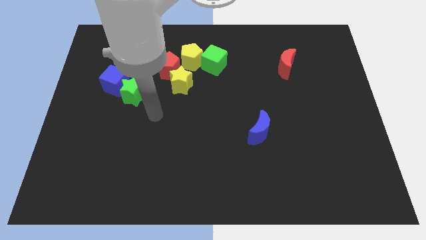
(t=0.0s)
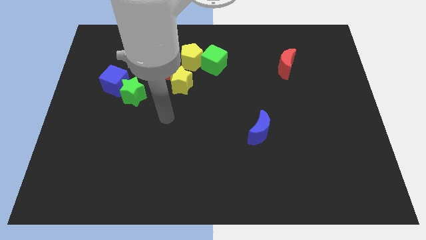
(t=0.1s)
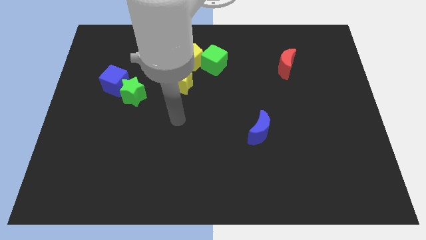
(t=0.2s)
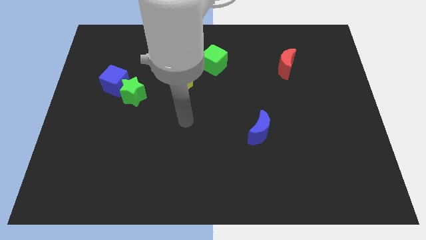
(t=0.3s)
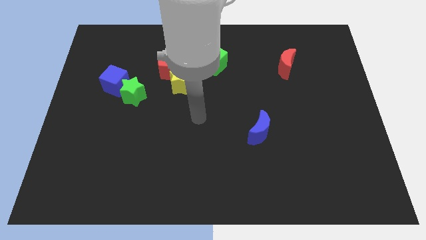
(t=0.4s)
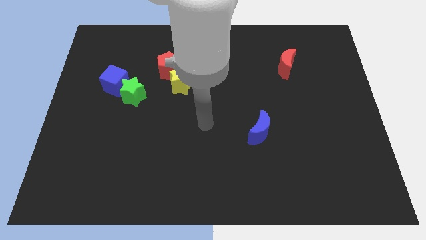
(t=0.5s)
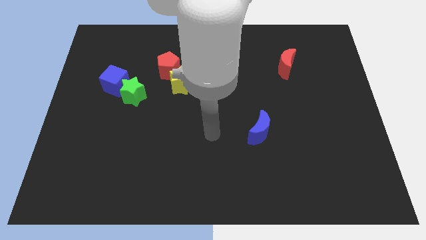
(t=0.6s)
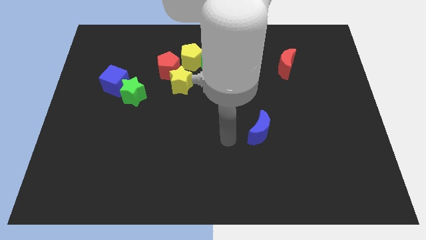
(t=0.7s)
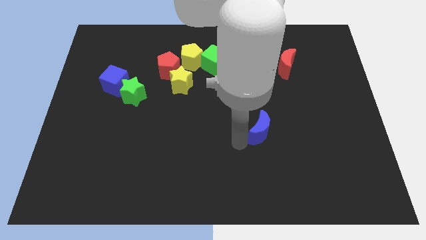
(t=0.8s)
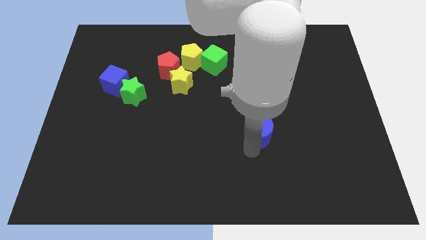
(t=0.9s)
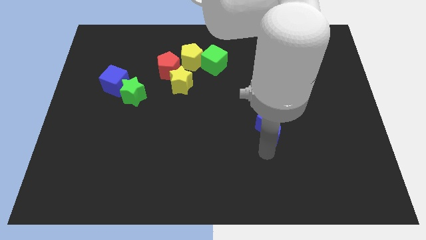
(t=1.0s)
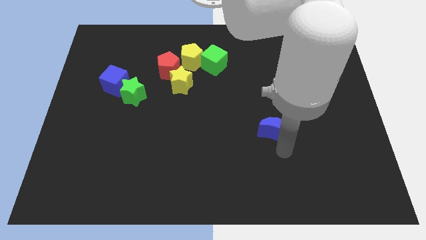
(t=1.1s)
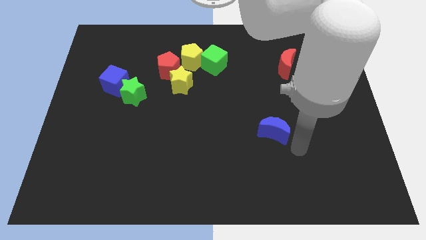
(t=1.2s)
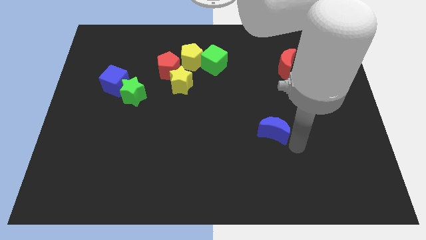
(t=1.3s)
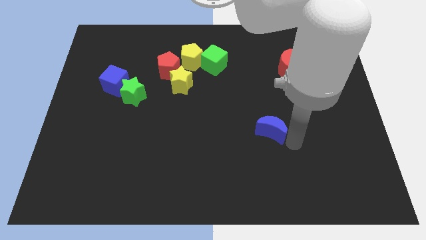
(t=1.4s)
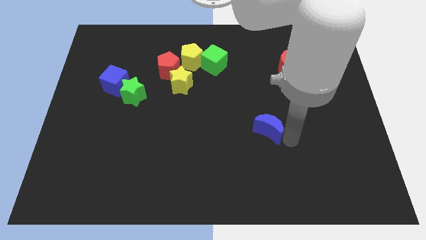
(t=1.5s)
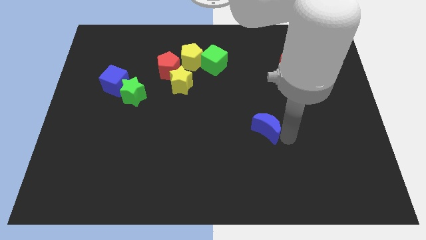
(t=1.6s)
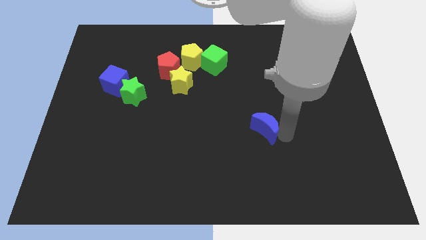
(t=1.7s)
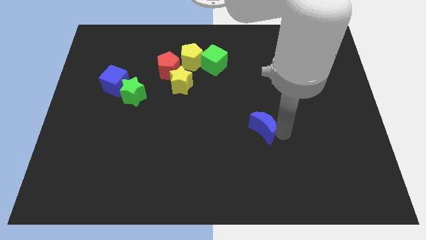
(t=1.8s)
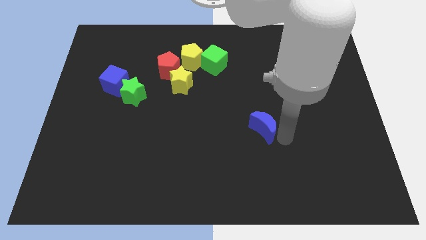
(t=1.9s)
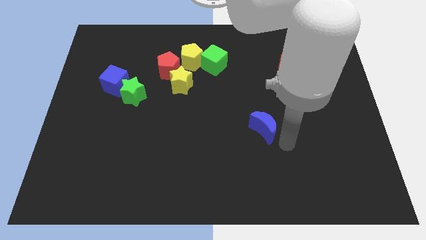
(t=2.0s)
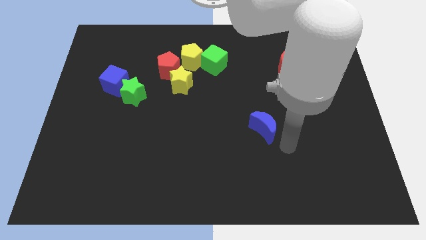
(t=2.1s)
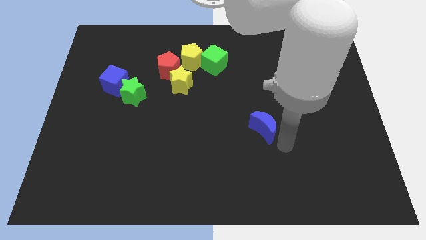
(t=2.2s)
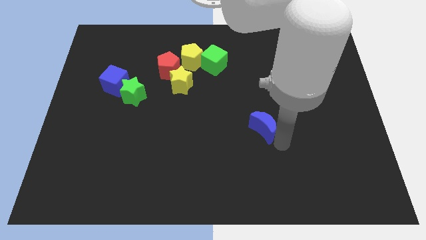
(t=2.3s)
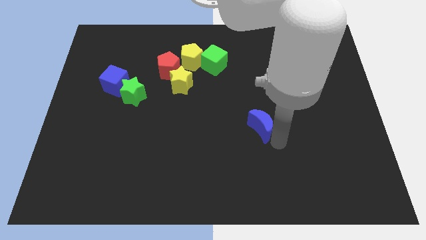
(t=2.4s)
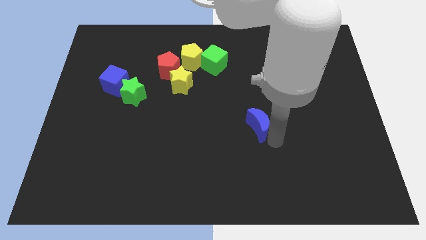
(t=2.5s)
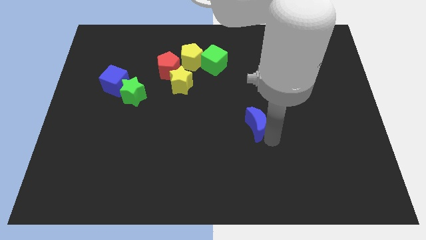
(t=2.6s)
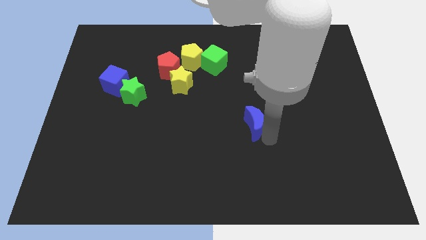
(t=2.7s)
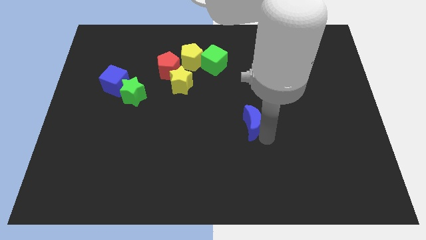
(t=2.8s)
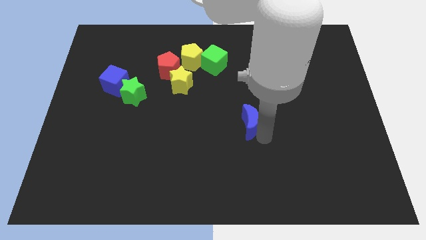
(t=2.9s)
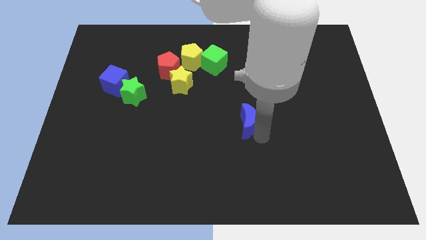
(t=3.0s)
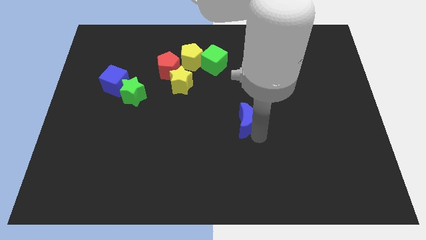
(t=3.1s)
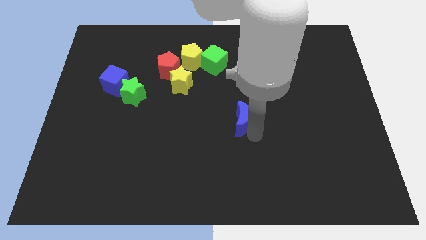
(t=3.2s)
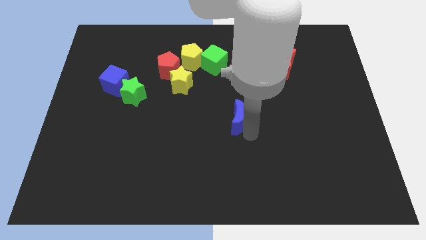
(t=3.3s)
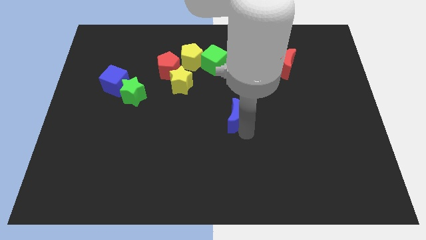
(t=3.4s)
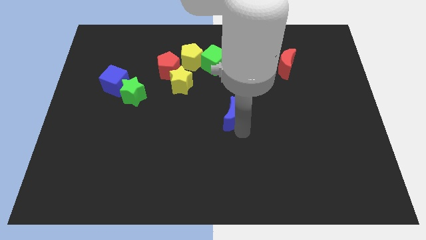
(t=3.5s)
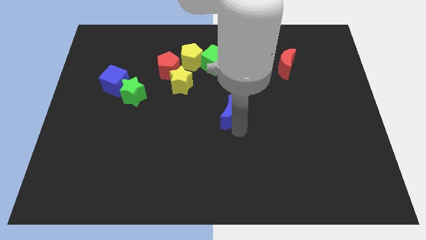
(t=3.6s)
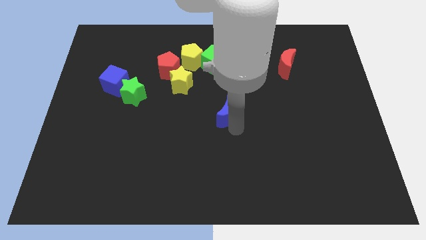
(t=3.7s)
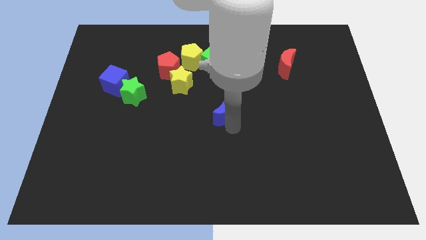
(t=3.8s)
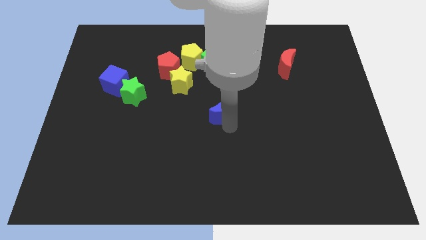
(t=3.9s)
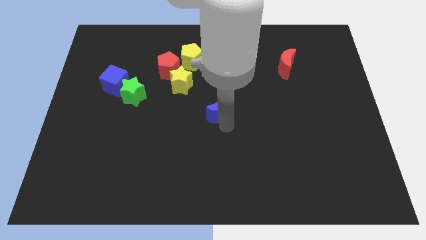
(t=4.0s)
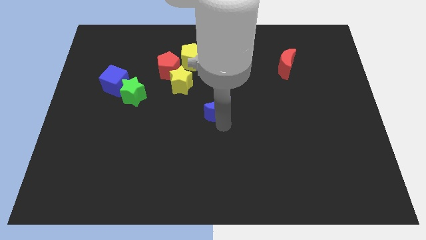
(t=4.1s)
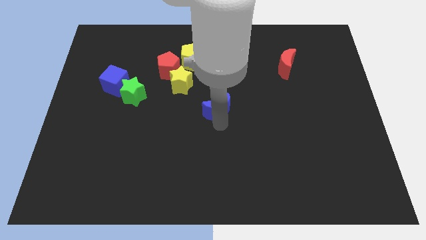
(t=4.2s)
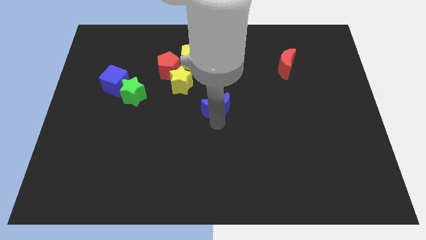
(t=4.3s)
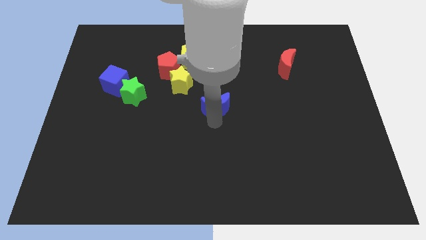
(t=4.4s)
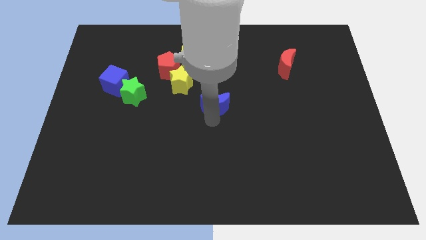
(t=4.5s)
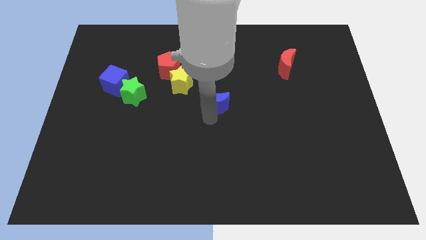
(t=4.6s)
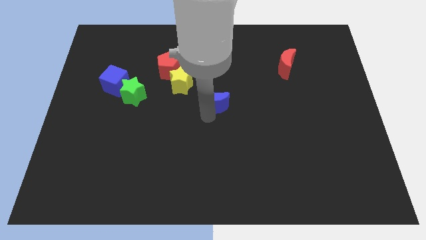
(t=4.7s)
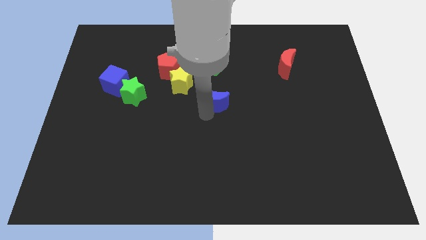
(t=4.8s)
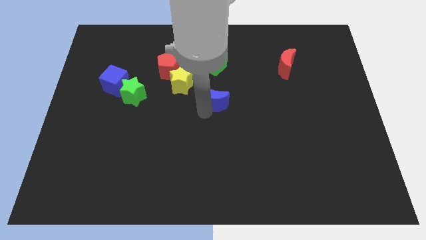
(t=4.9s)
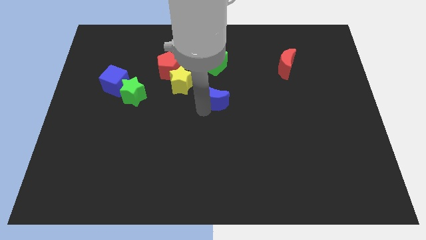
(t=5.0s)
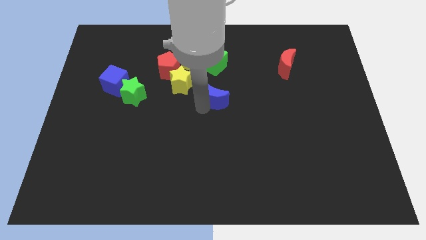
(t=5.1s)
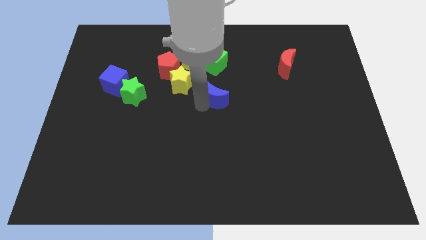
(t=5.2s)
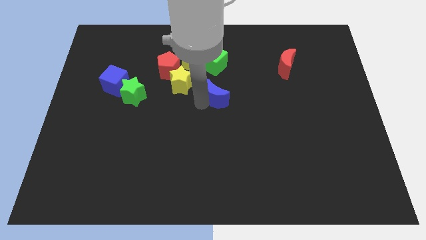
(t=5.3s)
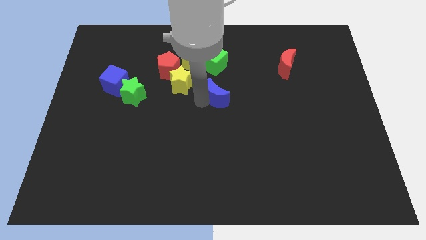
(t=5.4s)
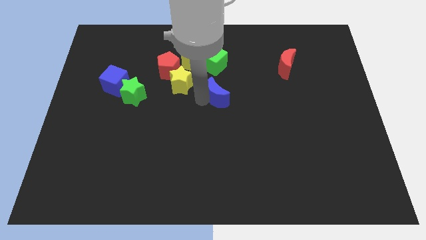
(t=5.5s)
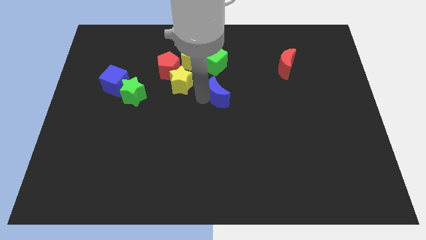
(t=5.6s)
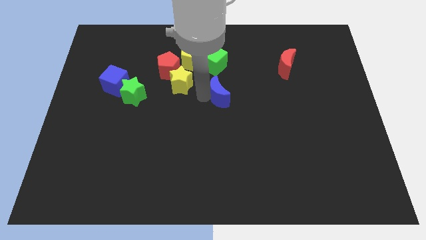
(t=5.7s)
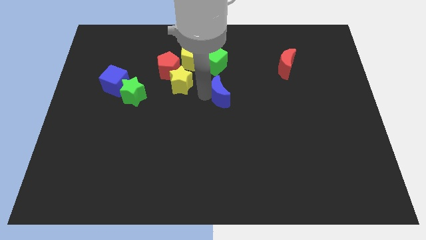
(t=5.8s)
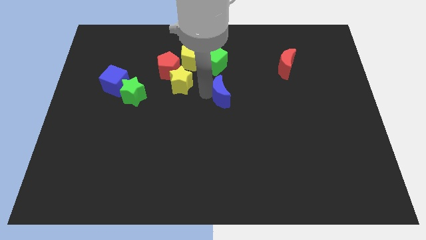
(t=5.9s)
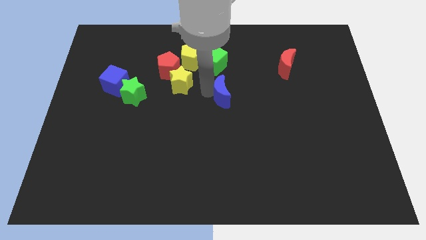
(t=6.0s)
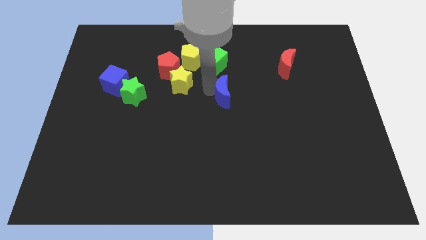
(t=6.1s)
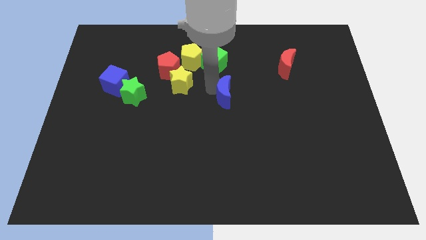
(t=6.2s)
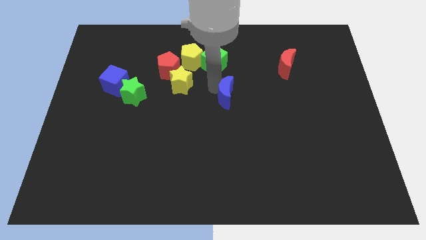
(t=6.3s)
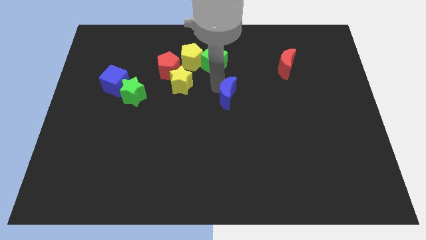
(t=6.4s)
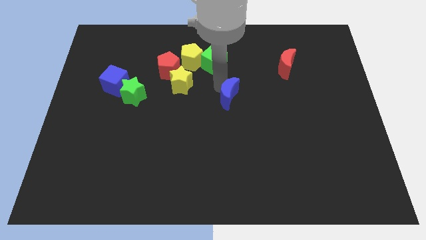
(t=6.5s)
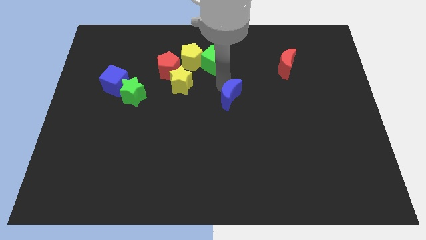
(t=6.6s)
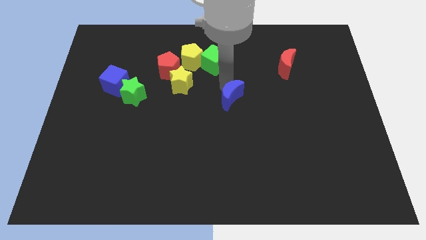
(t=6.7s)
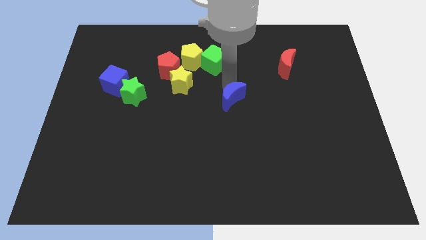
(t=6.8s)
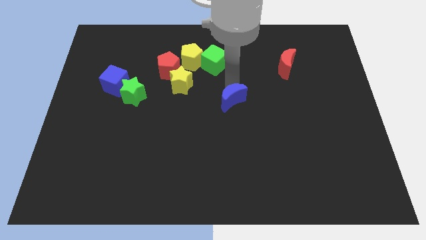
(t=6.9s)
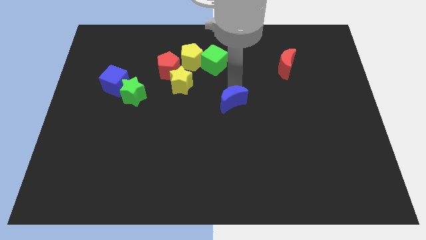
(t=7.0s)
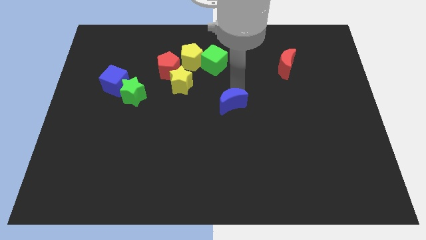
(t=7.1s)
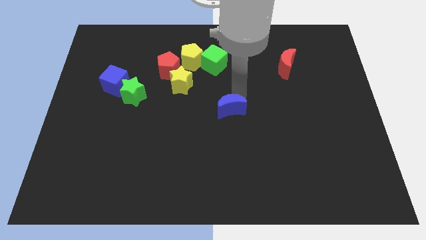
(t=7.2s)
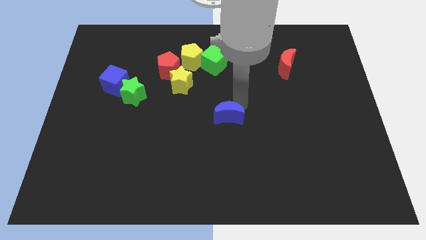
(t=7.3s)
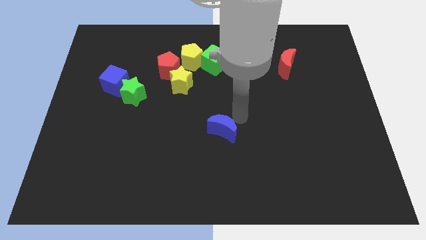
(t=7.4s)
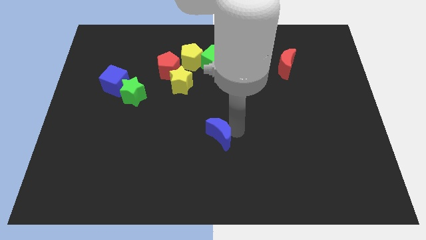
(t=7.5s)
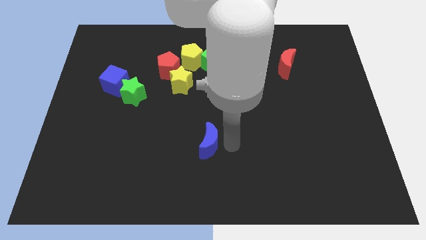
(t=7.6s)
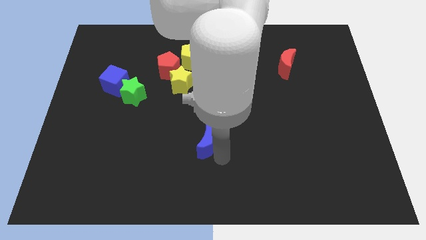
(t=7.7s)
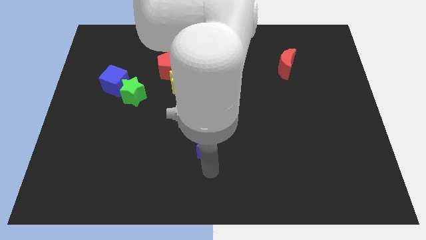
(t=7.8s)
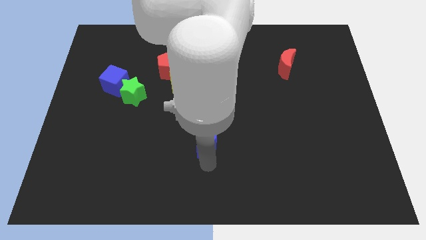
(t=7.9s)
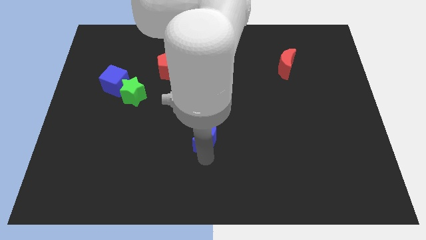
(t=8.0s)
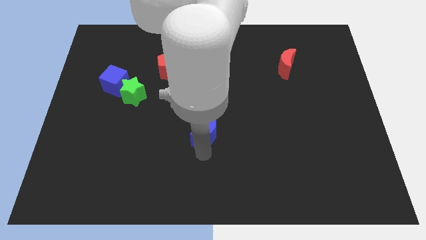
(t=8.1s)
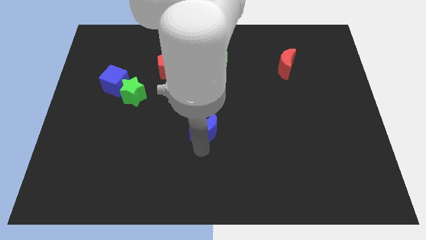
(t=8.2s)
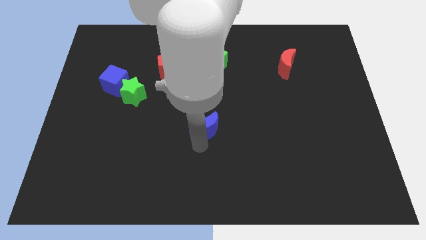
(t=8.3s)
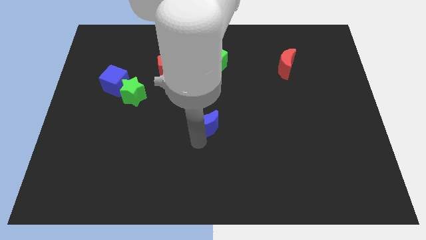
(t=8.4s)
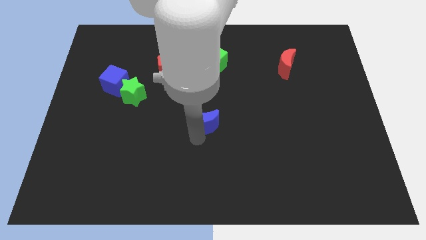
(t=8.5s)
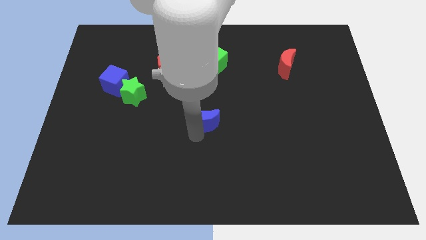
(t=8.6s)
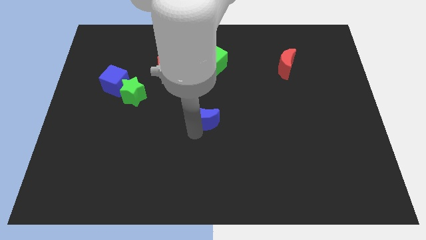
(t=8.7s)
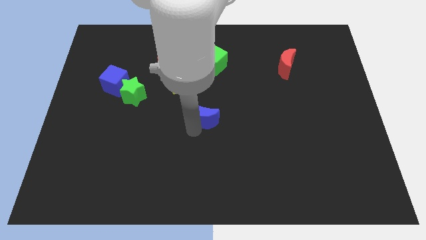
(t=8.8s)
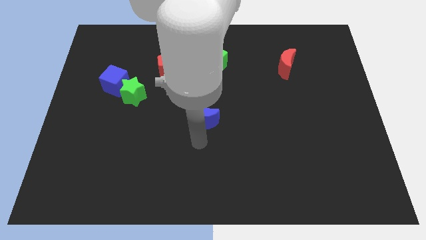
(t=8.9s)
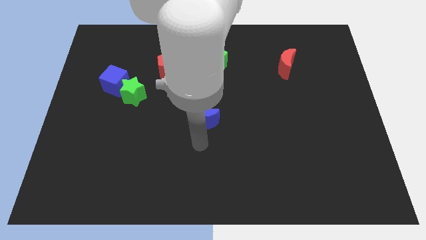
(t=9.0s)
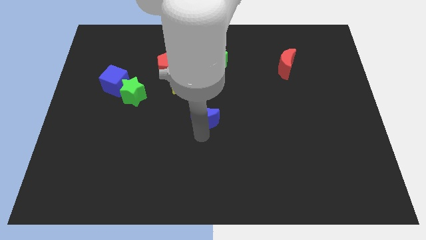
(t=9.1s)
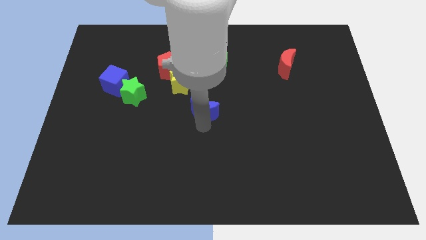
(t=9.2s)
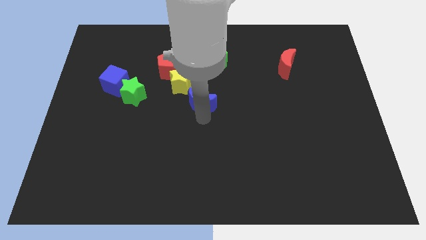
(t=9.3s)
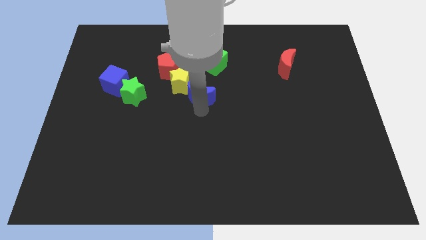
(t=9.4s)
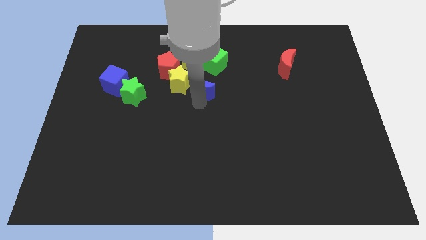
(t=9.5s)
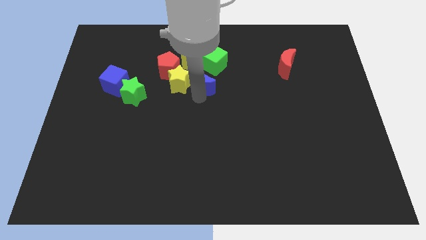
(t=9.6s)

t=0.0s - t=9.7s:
slide the blue moon diagonally down and to the right of the yellow pentagon
